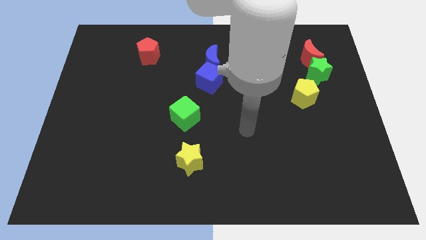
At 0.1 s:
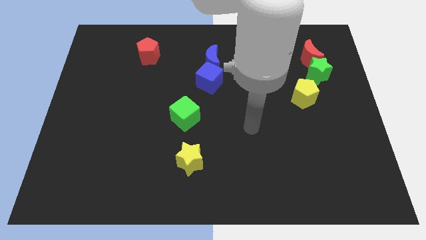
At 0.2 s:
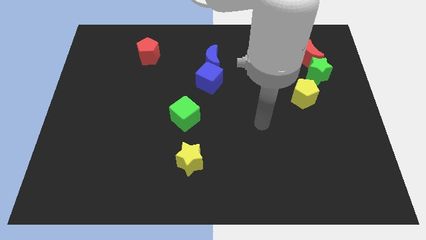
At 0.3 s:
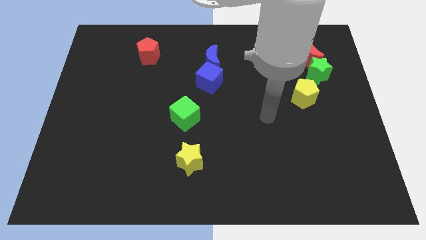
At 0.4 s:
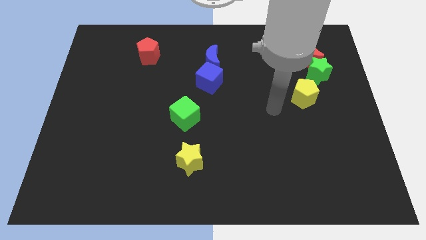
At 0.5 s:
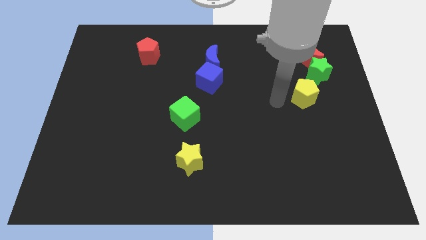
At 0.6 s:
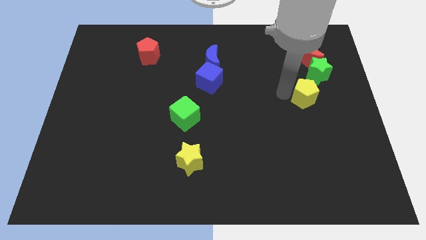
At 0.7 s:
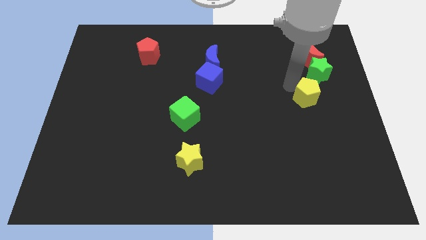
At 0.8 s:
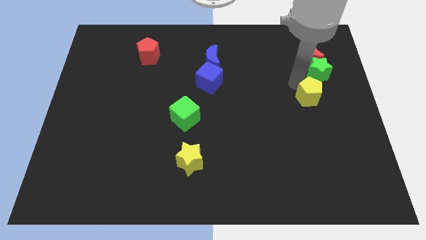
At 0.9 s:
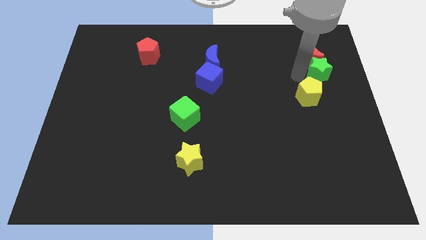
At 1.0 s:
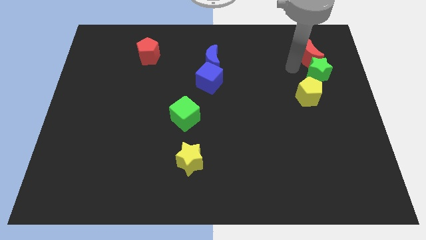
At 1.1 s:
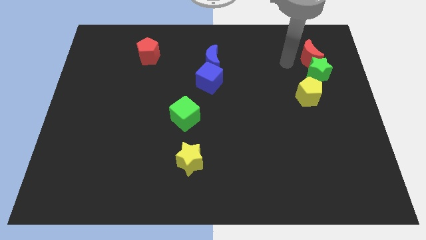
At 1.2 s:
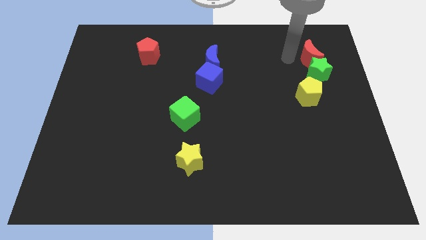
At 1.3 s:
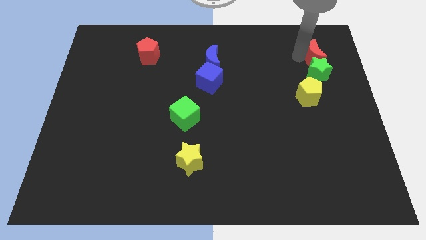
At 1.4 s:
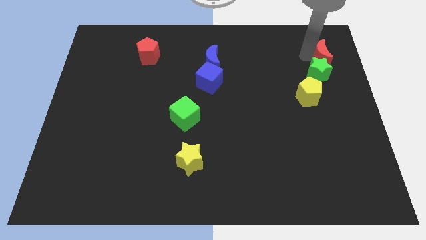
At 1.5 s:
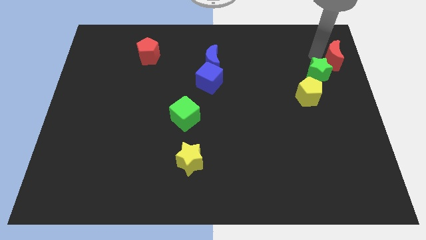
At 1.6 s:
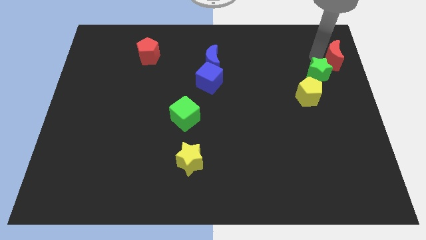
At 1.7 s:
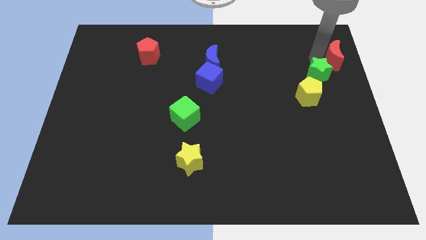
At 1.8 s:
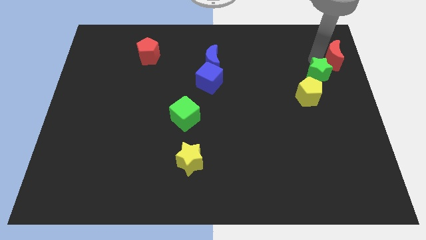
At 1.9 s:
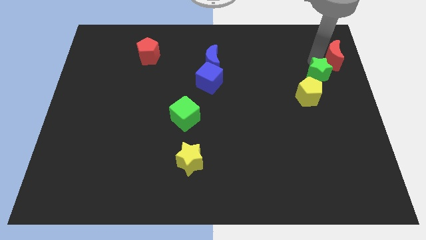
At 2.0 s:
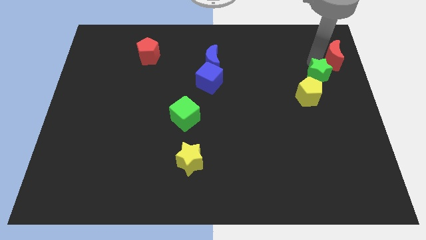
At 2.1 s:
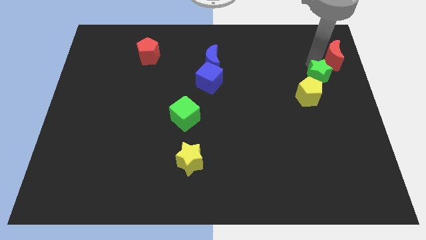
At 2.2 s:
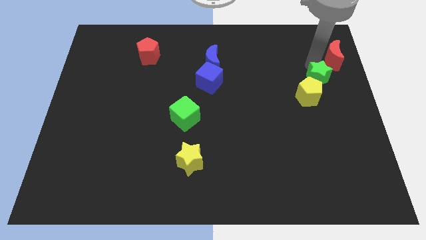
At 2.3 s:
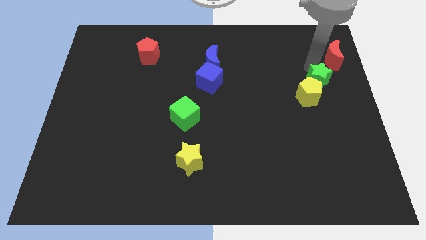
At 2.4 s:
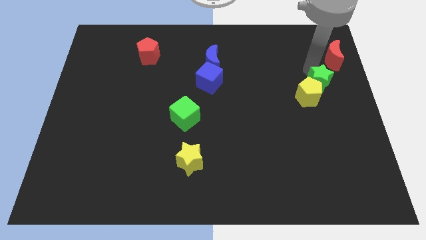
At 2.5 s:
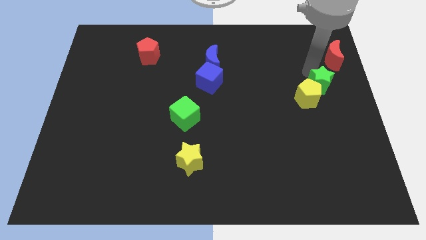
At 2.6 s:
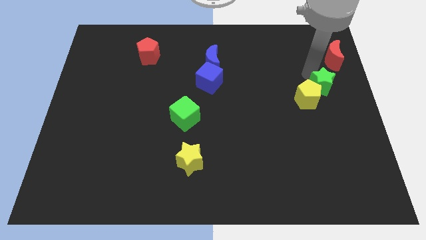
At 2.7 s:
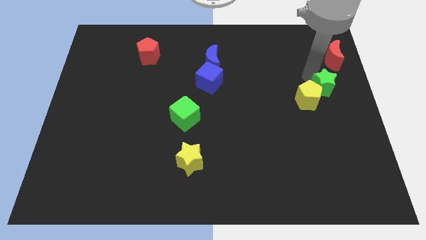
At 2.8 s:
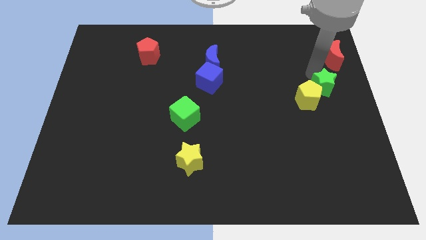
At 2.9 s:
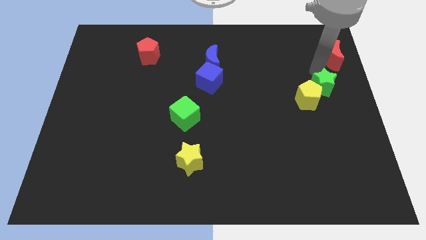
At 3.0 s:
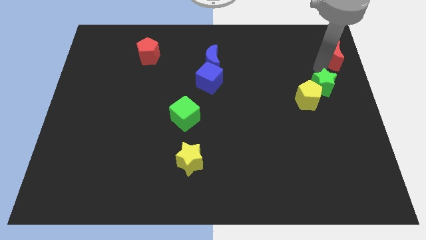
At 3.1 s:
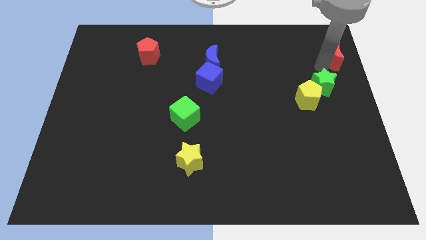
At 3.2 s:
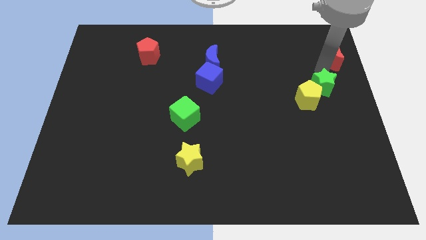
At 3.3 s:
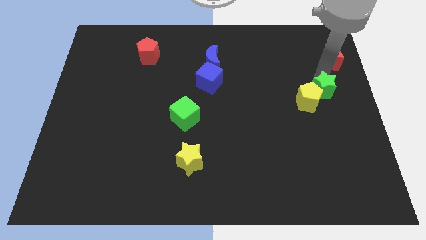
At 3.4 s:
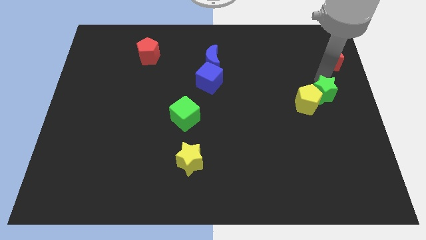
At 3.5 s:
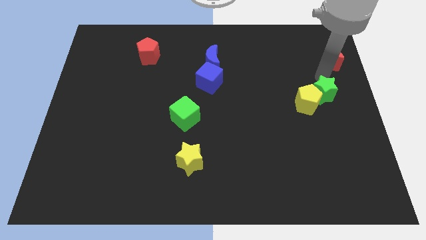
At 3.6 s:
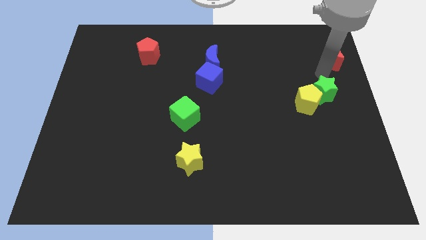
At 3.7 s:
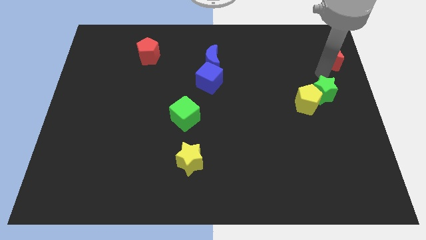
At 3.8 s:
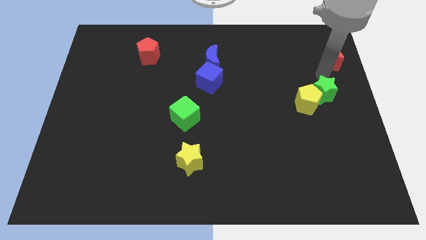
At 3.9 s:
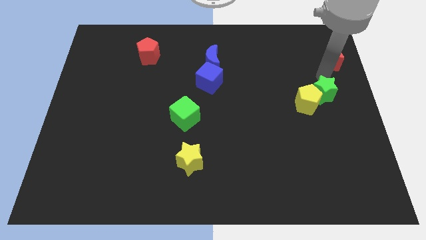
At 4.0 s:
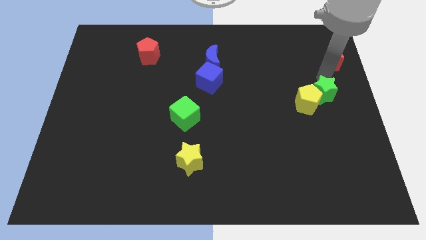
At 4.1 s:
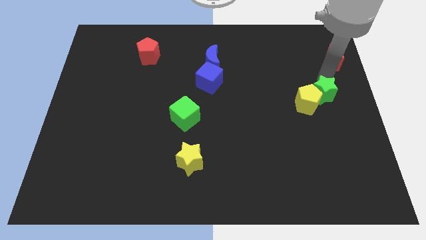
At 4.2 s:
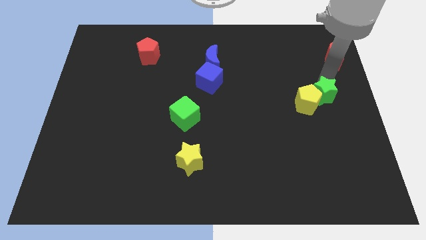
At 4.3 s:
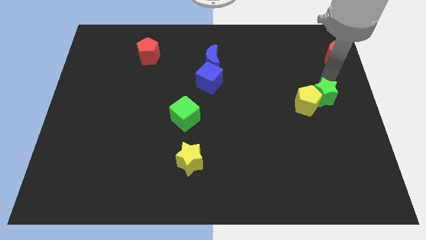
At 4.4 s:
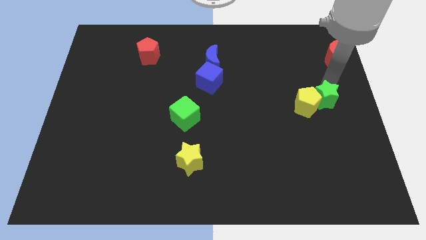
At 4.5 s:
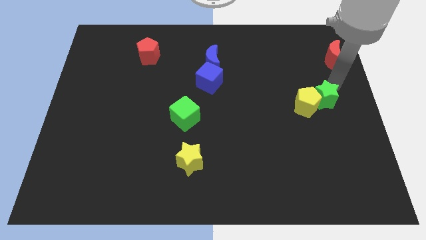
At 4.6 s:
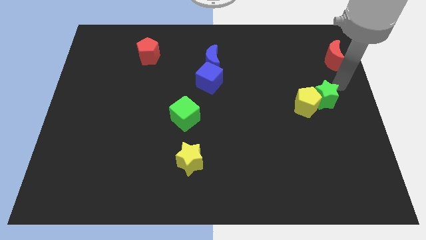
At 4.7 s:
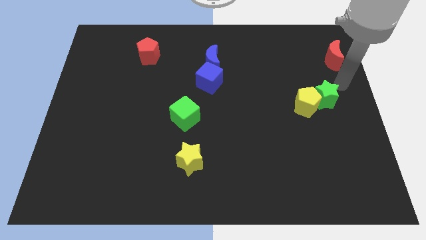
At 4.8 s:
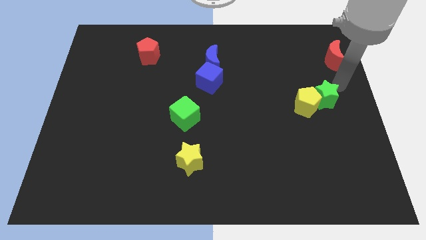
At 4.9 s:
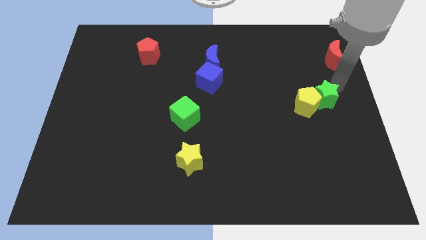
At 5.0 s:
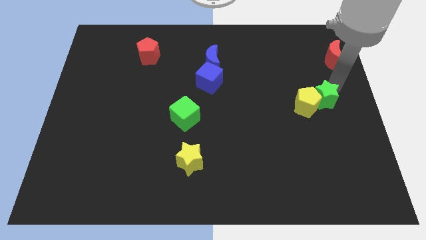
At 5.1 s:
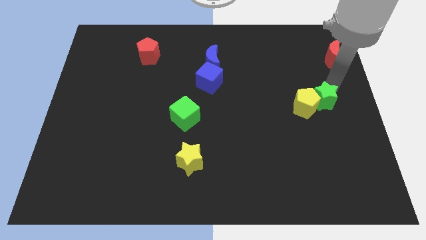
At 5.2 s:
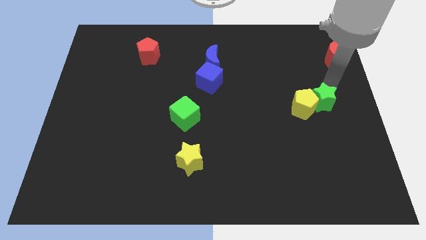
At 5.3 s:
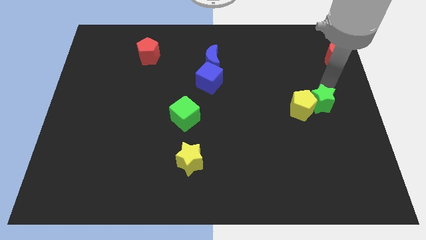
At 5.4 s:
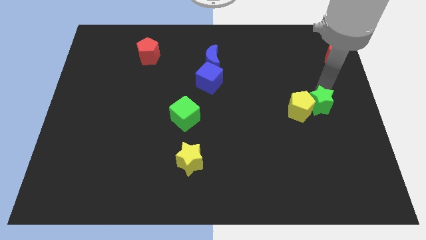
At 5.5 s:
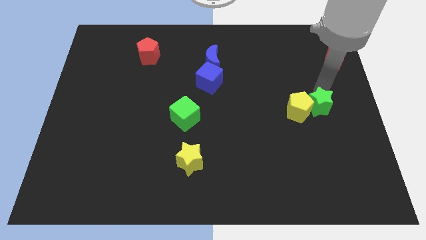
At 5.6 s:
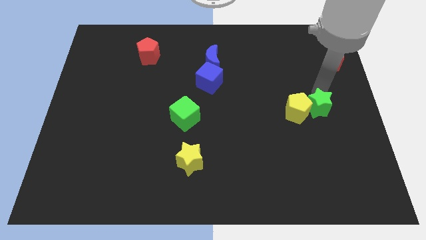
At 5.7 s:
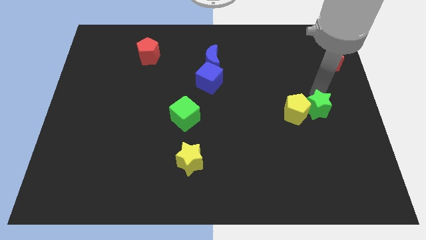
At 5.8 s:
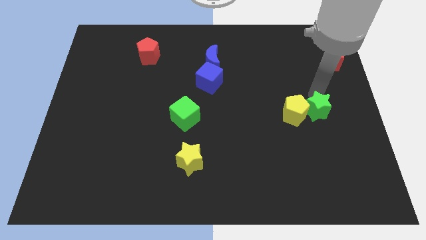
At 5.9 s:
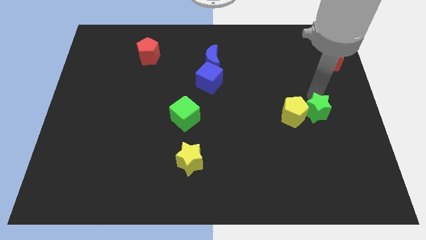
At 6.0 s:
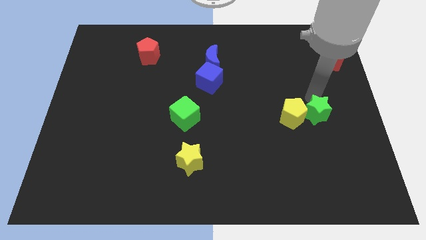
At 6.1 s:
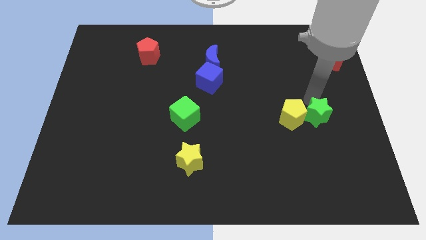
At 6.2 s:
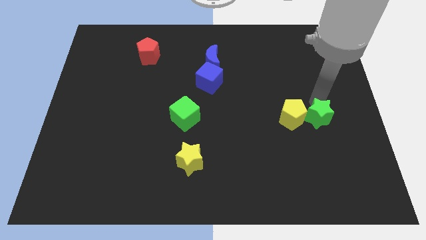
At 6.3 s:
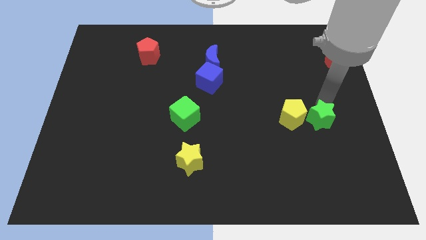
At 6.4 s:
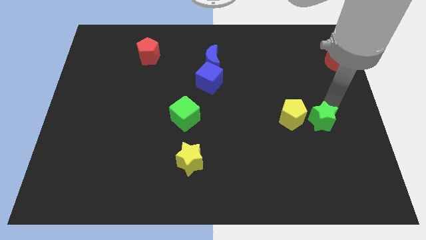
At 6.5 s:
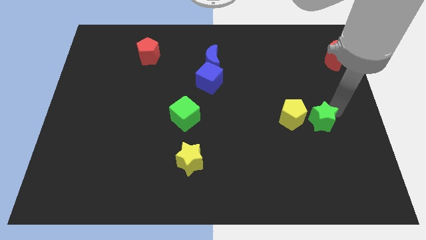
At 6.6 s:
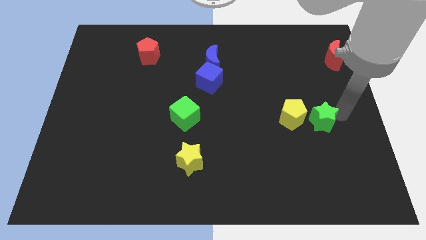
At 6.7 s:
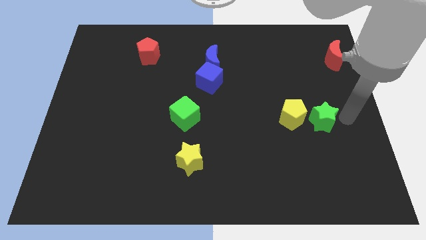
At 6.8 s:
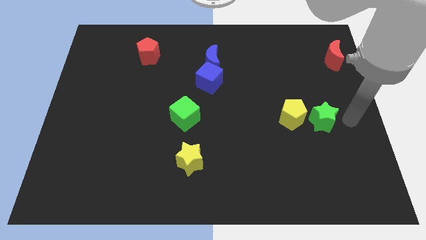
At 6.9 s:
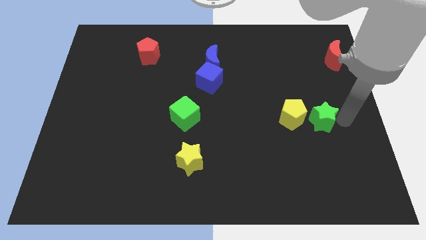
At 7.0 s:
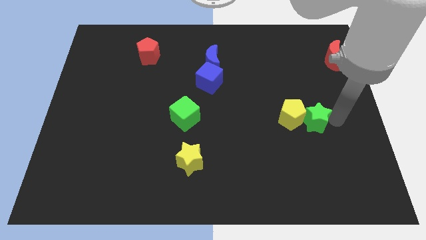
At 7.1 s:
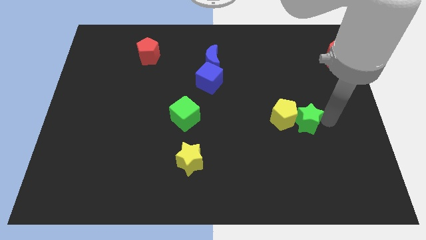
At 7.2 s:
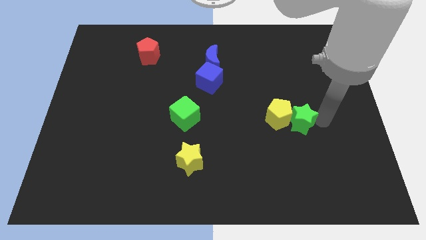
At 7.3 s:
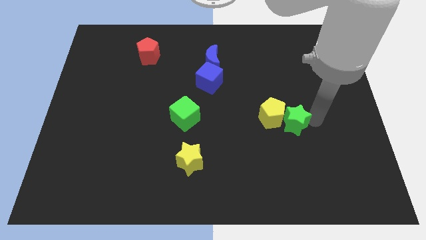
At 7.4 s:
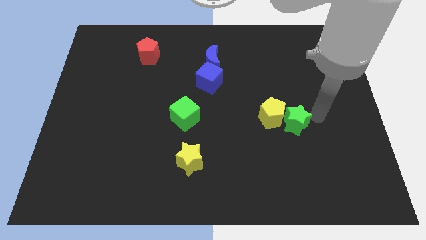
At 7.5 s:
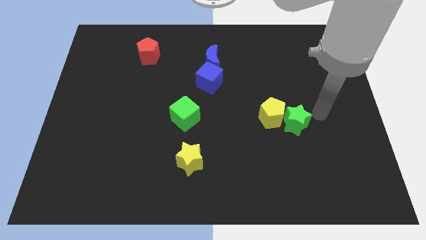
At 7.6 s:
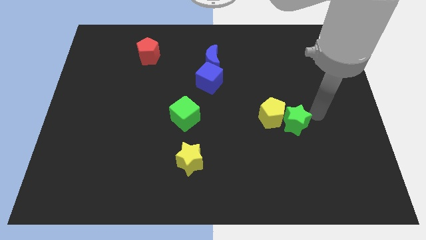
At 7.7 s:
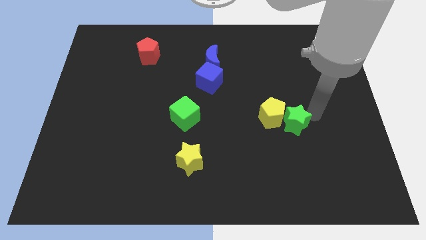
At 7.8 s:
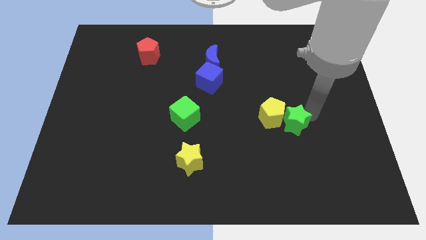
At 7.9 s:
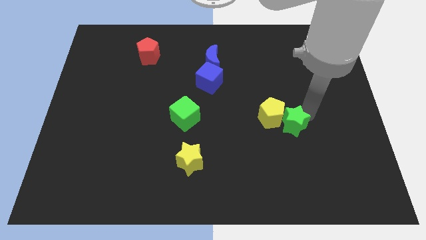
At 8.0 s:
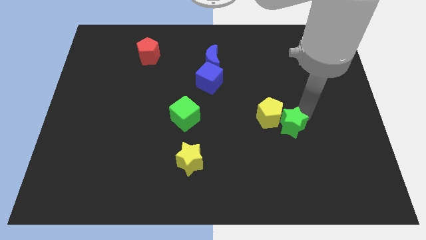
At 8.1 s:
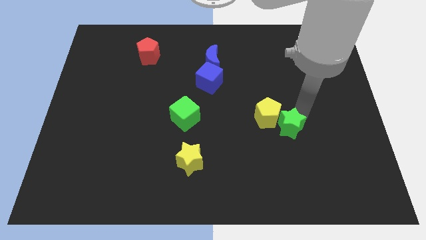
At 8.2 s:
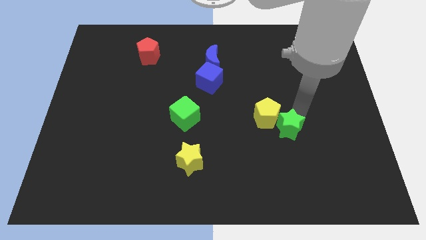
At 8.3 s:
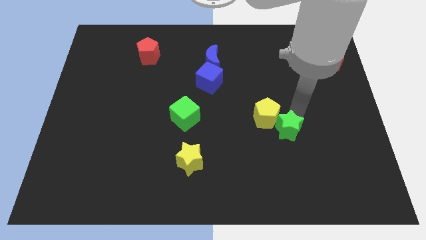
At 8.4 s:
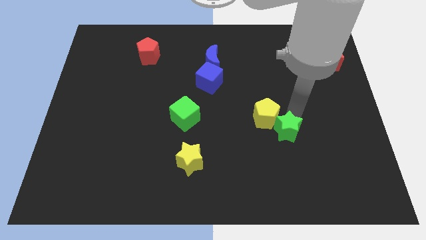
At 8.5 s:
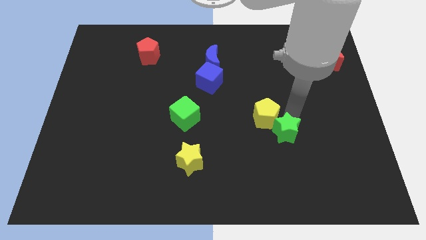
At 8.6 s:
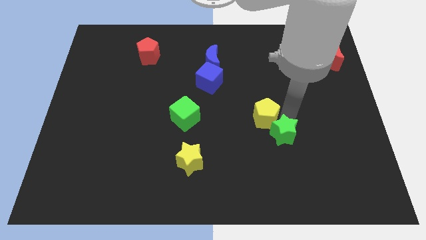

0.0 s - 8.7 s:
move the green star diagonally downwards and to the left
